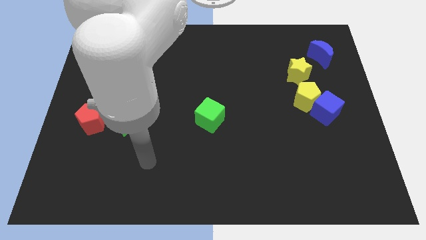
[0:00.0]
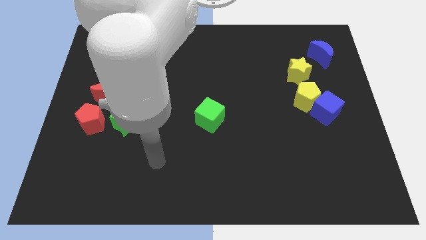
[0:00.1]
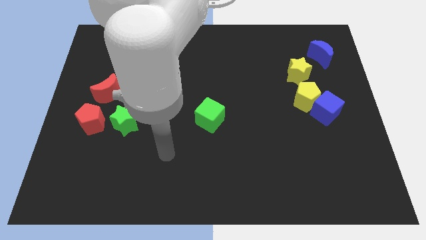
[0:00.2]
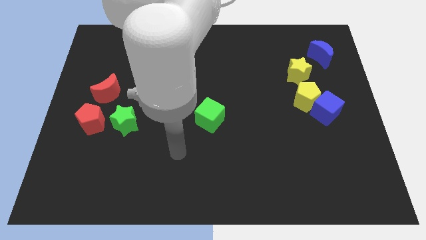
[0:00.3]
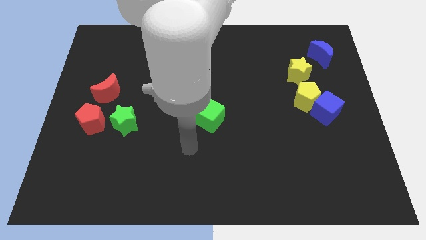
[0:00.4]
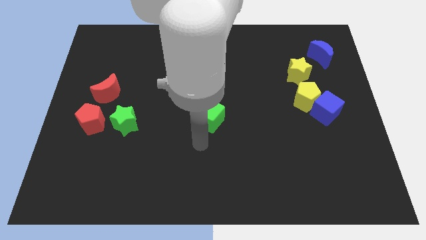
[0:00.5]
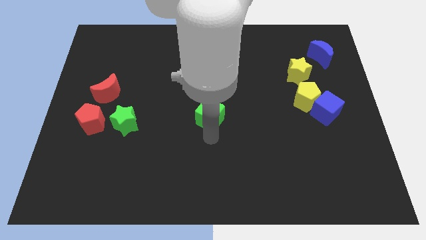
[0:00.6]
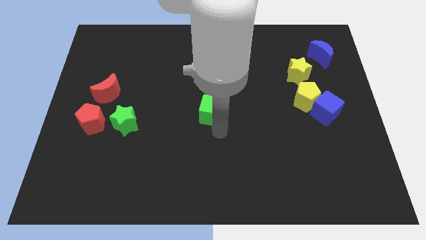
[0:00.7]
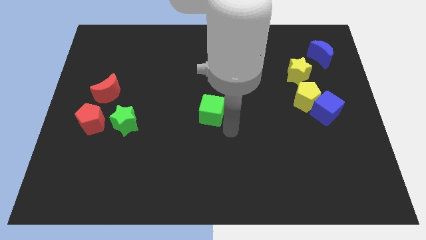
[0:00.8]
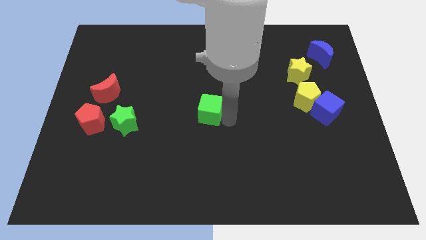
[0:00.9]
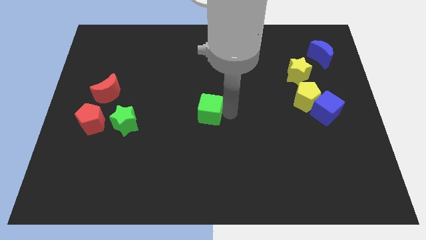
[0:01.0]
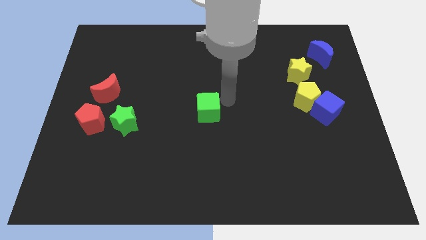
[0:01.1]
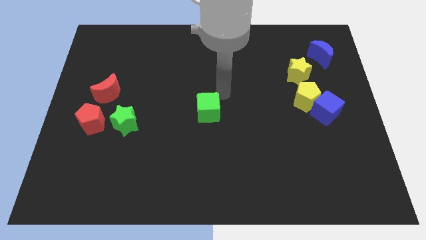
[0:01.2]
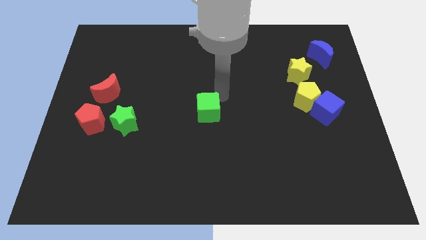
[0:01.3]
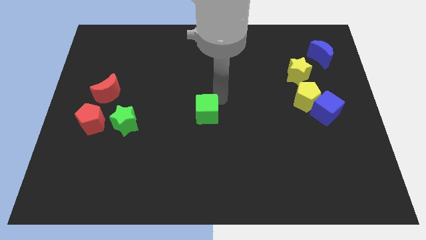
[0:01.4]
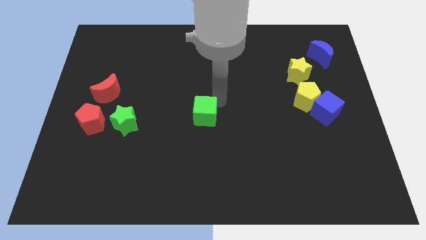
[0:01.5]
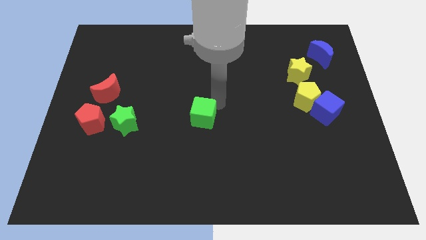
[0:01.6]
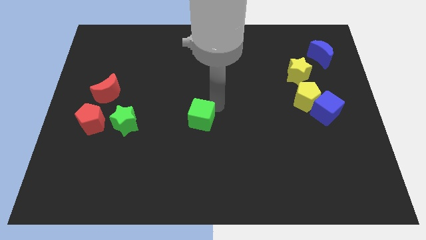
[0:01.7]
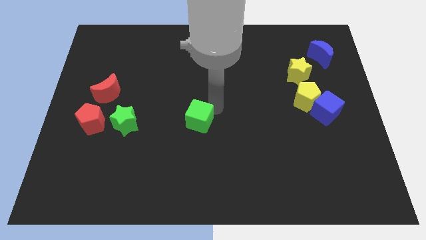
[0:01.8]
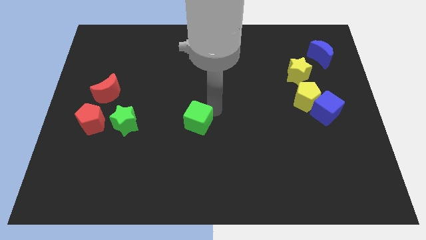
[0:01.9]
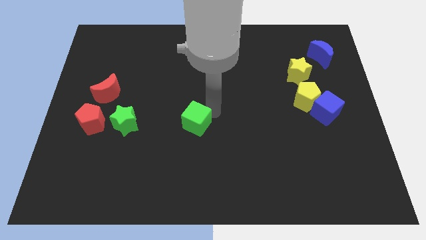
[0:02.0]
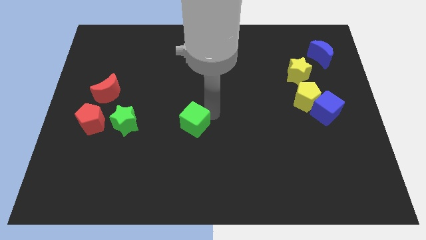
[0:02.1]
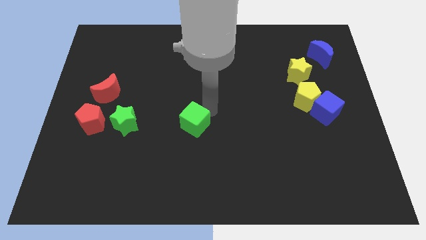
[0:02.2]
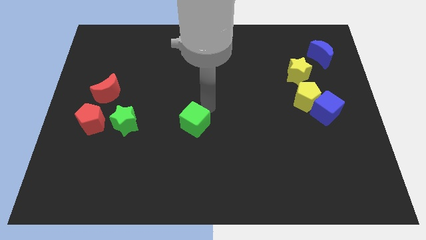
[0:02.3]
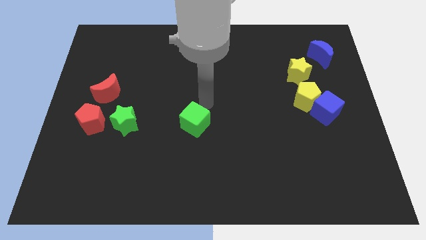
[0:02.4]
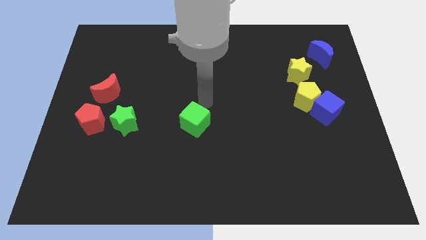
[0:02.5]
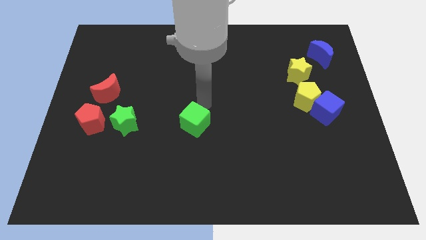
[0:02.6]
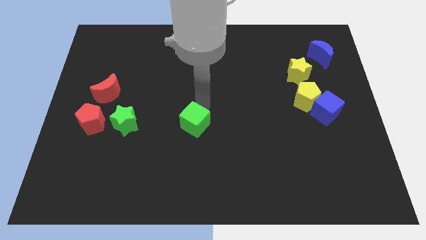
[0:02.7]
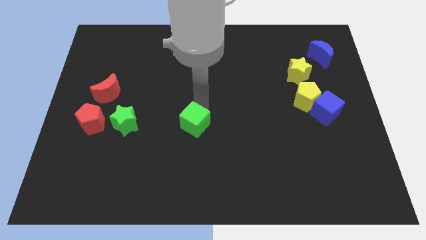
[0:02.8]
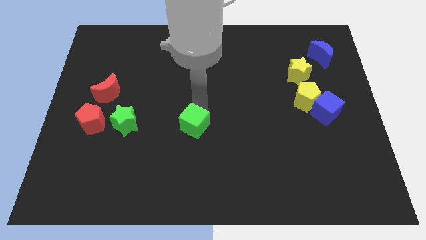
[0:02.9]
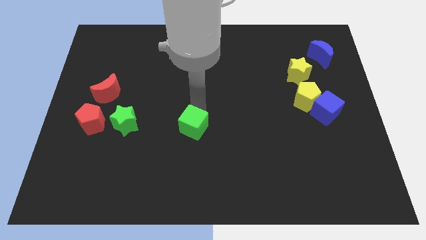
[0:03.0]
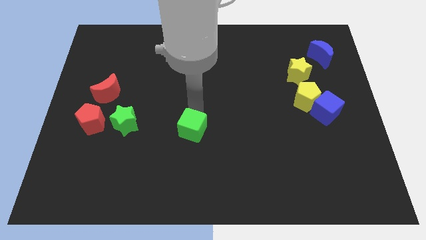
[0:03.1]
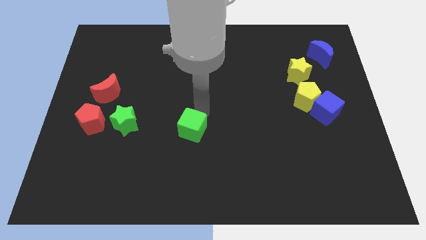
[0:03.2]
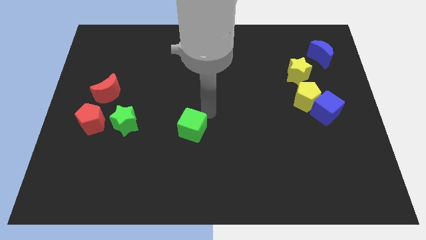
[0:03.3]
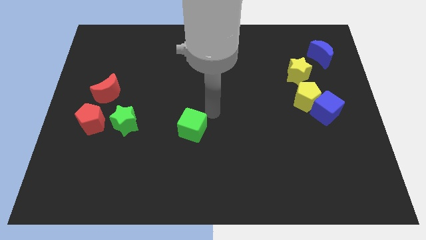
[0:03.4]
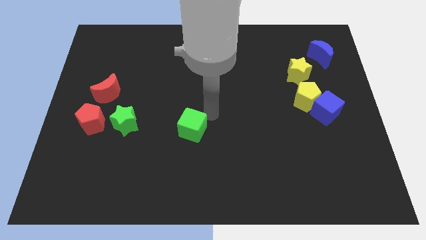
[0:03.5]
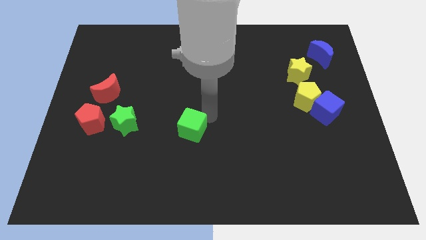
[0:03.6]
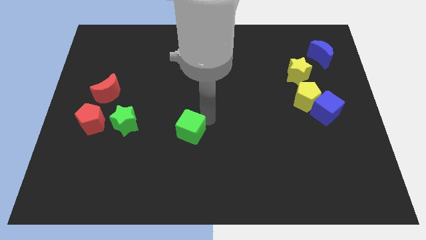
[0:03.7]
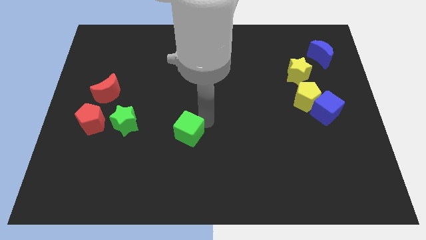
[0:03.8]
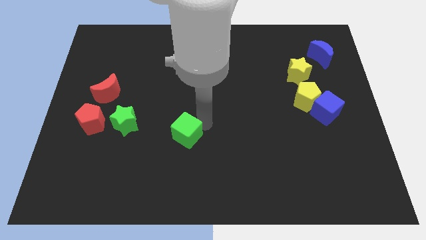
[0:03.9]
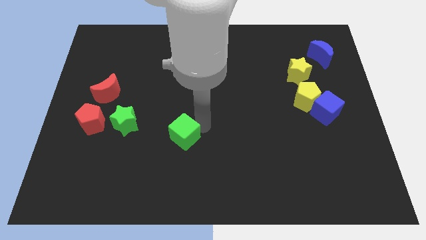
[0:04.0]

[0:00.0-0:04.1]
slide the green cube a little down and to the left diagonally

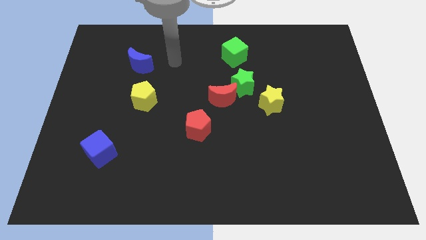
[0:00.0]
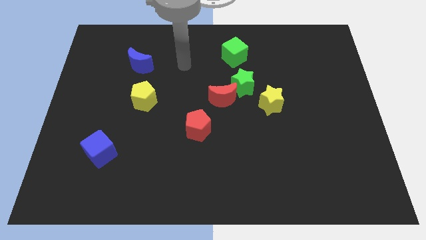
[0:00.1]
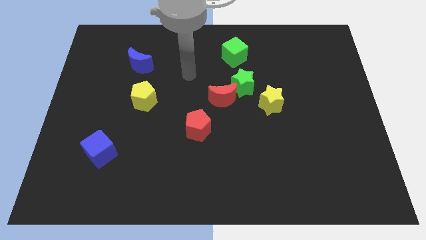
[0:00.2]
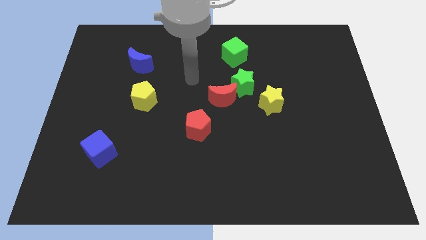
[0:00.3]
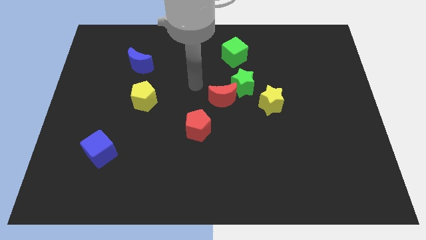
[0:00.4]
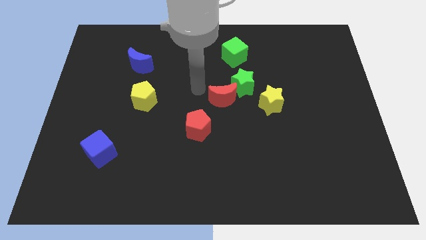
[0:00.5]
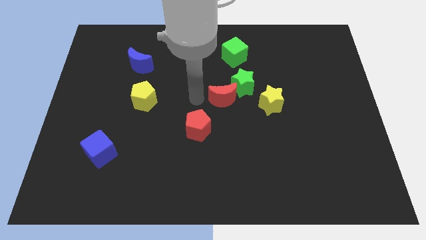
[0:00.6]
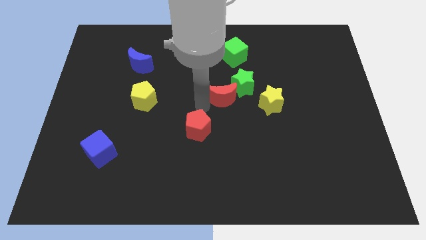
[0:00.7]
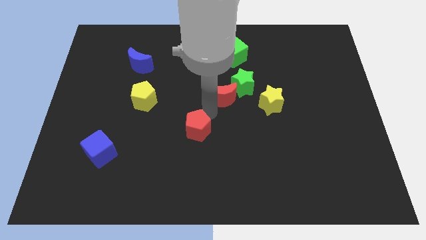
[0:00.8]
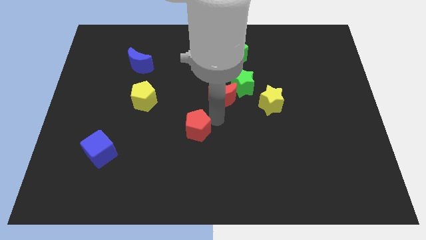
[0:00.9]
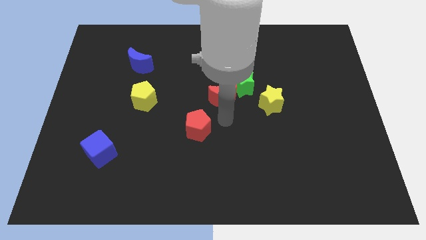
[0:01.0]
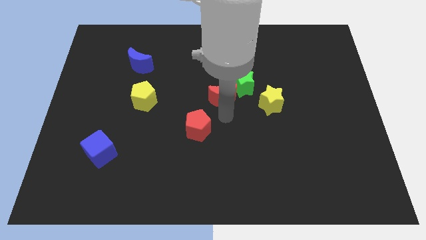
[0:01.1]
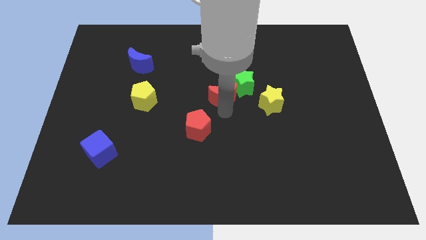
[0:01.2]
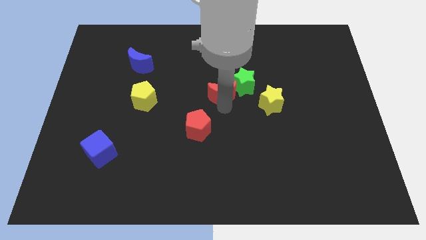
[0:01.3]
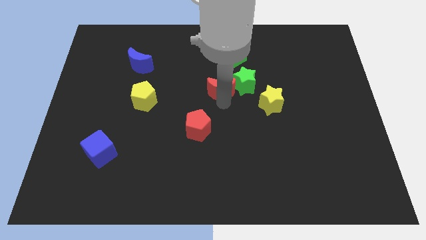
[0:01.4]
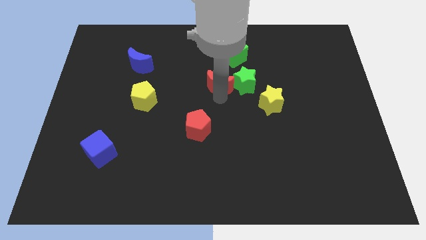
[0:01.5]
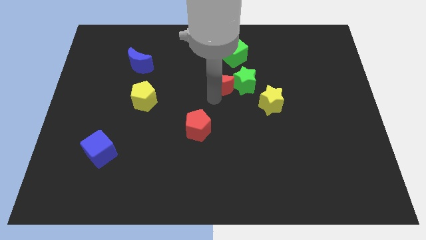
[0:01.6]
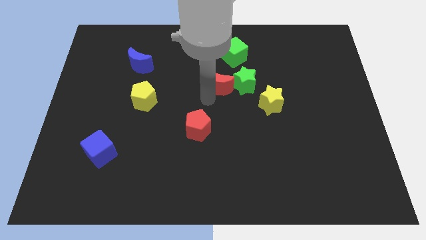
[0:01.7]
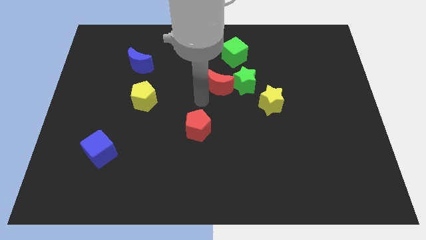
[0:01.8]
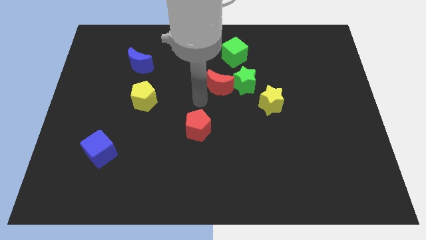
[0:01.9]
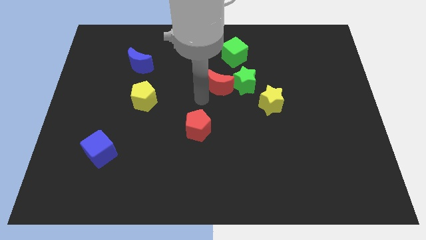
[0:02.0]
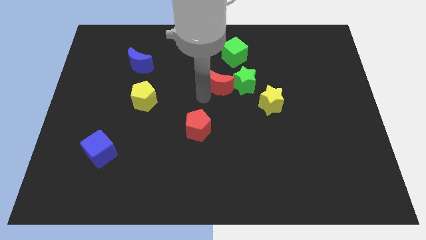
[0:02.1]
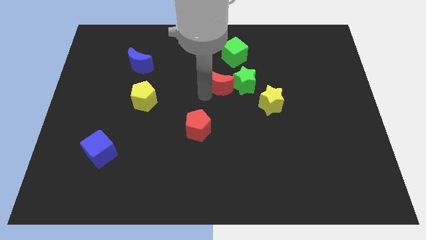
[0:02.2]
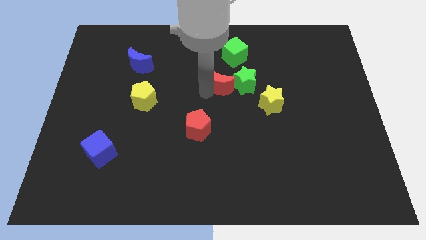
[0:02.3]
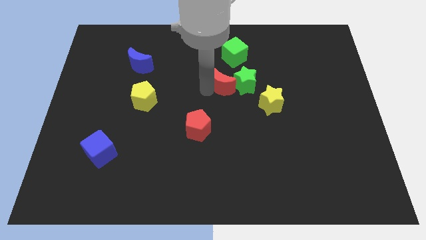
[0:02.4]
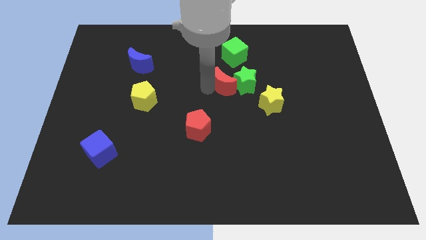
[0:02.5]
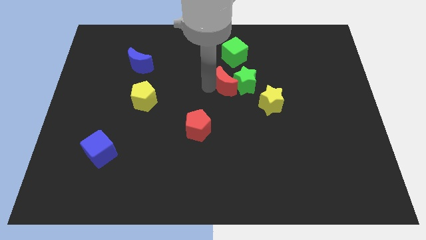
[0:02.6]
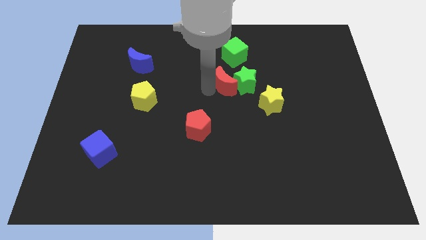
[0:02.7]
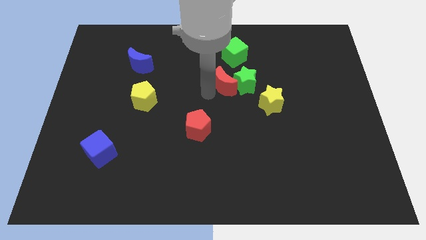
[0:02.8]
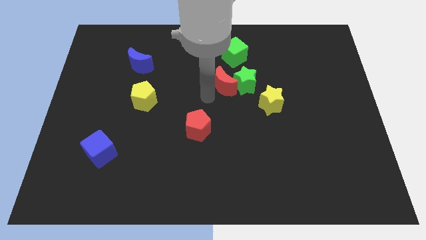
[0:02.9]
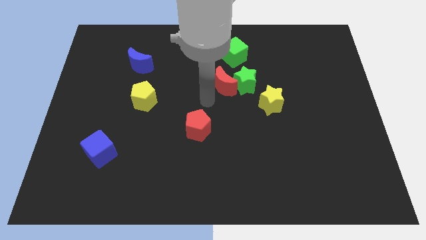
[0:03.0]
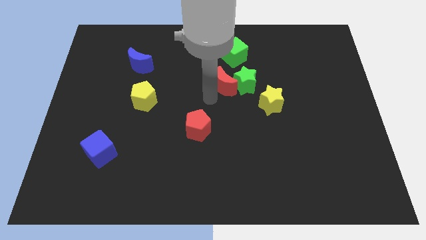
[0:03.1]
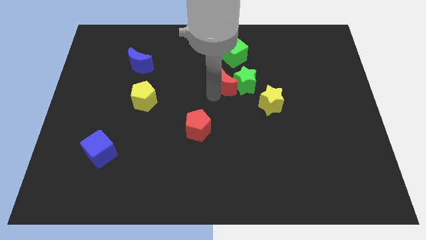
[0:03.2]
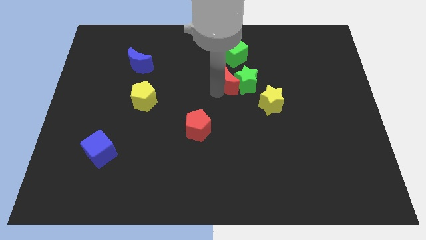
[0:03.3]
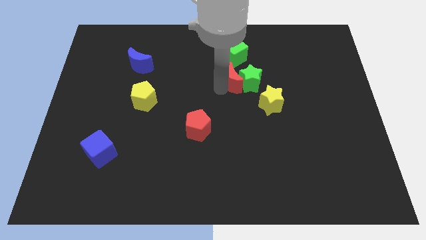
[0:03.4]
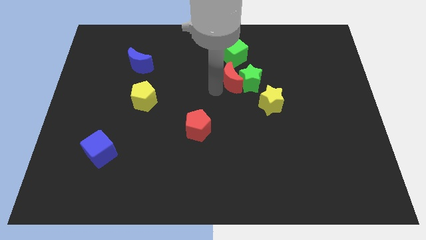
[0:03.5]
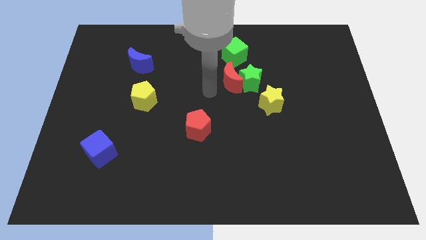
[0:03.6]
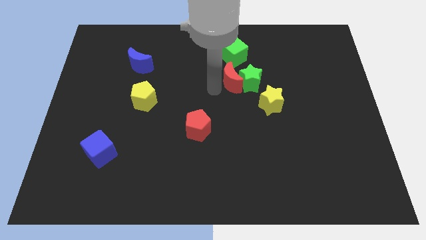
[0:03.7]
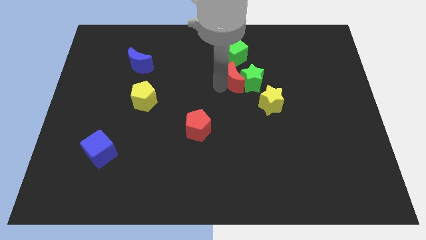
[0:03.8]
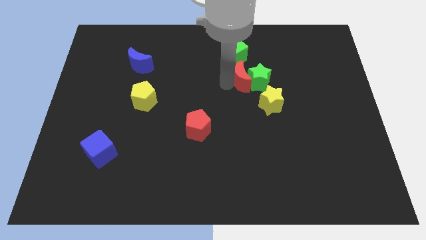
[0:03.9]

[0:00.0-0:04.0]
move the red moon somewhat upwards and then to the right
